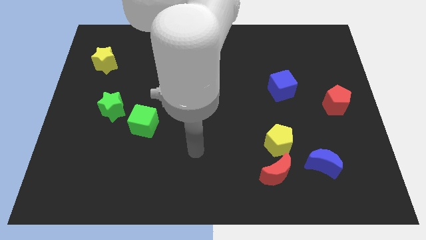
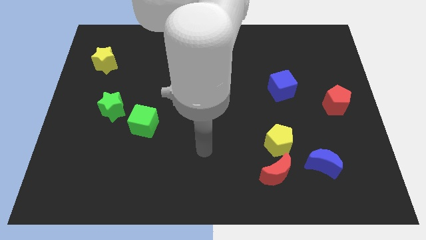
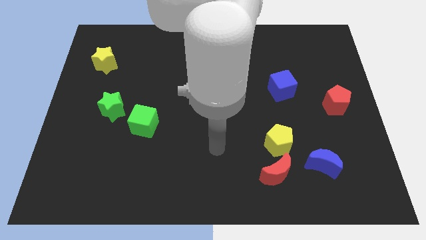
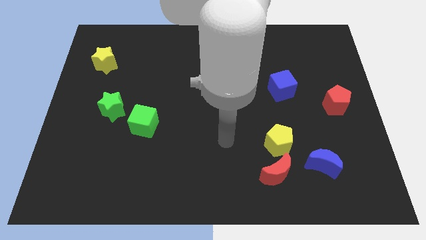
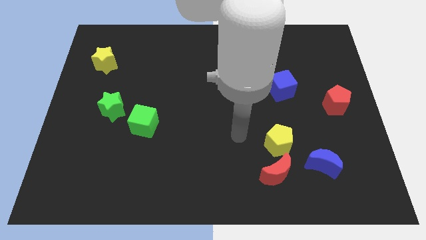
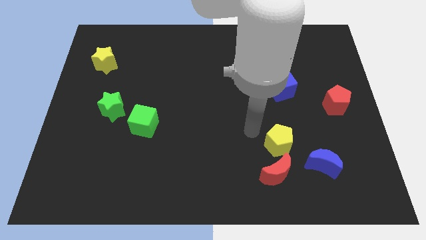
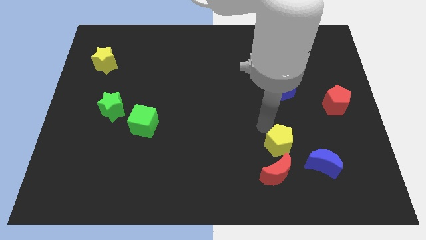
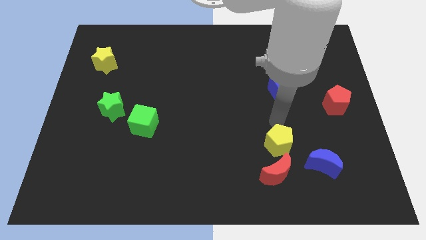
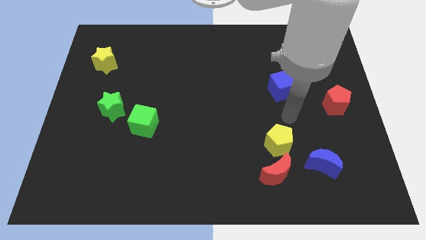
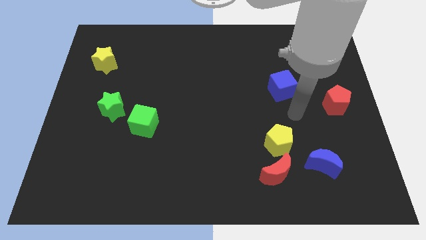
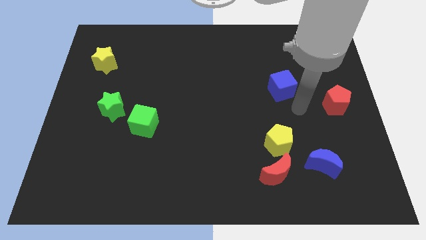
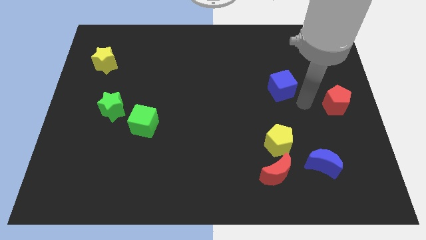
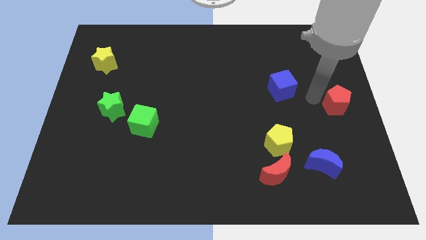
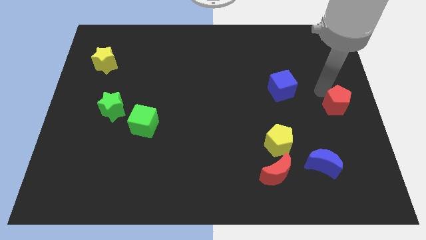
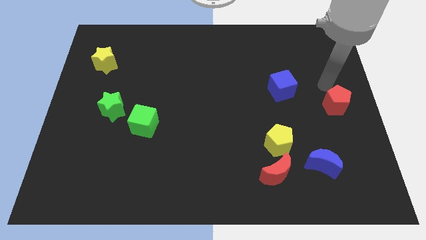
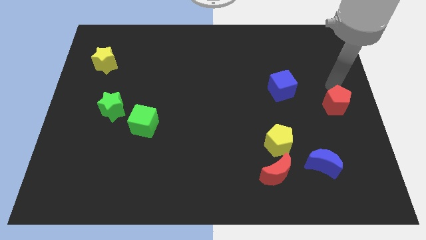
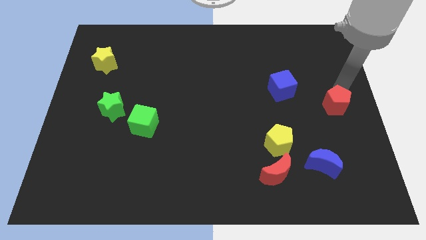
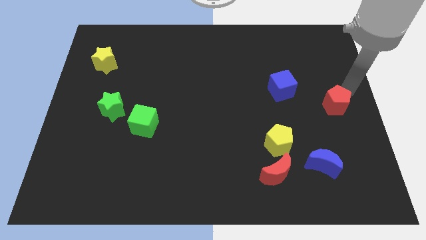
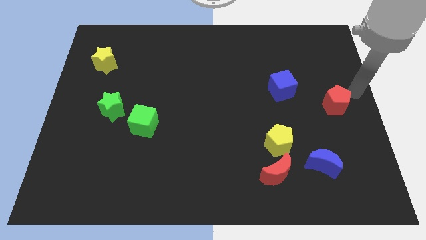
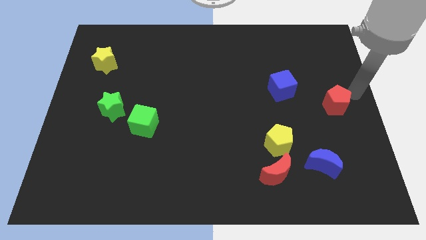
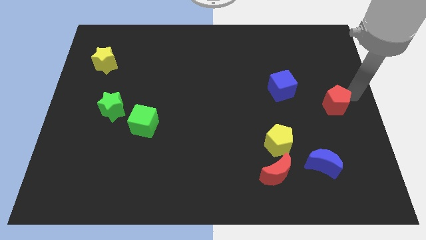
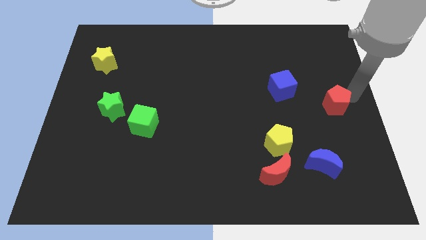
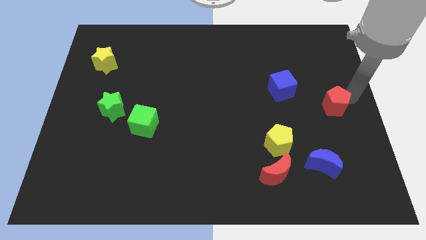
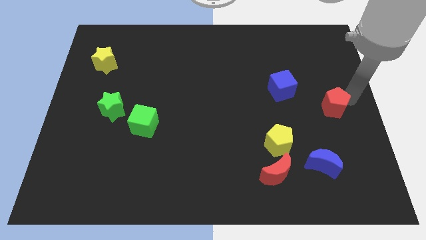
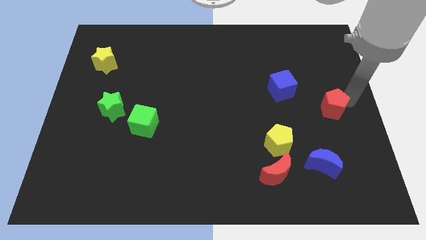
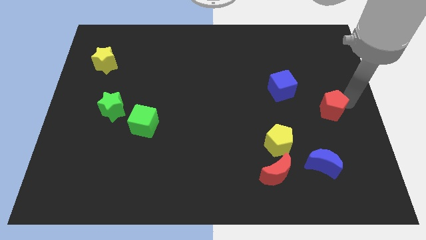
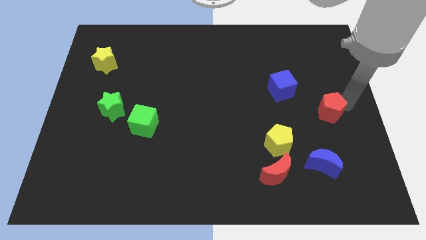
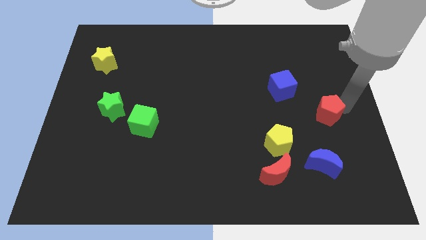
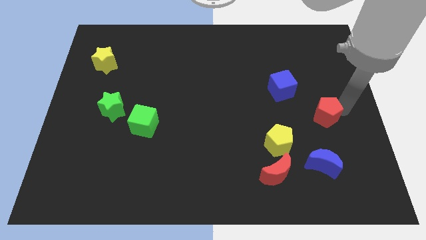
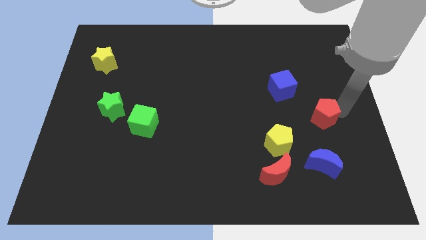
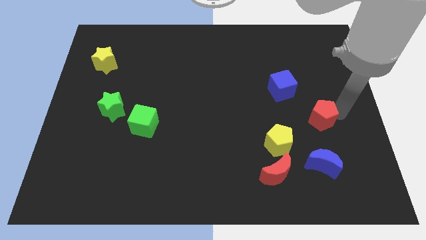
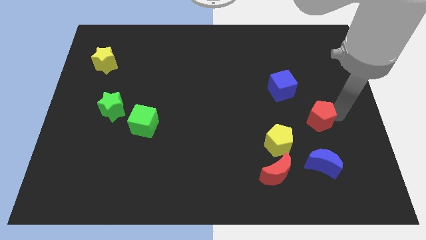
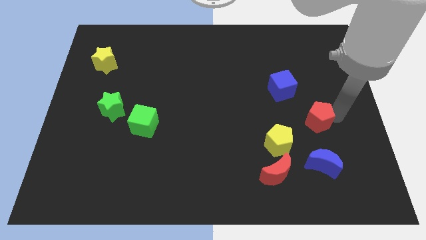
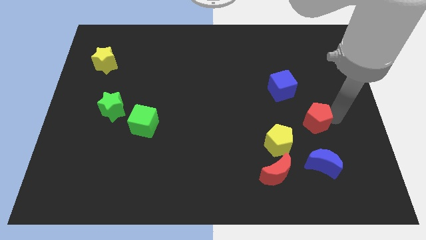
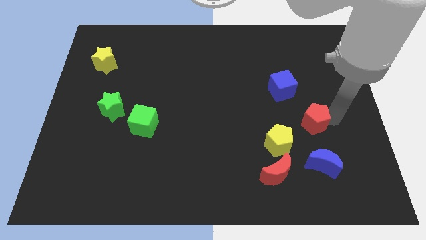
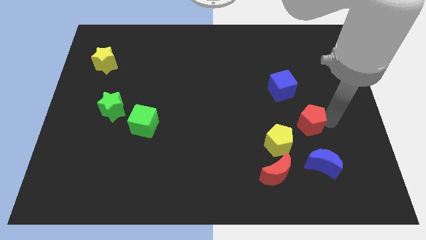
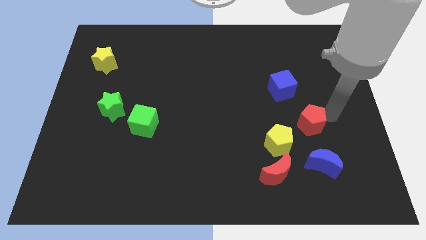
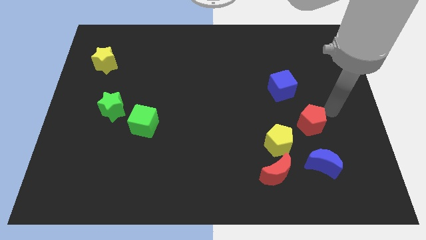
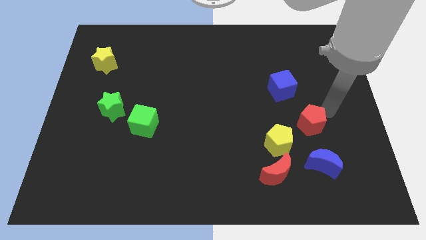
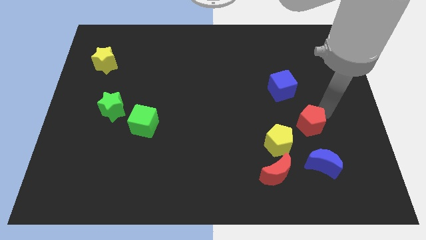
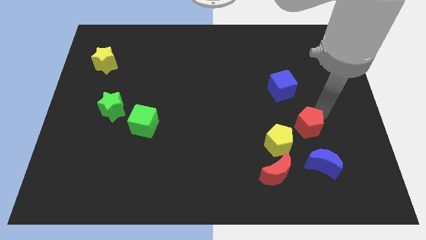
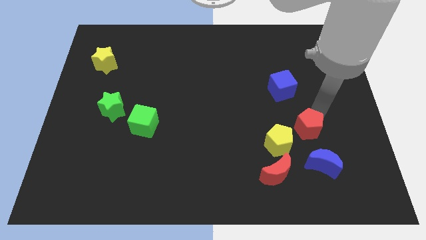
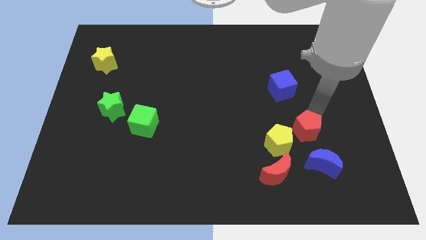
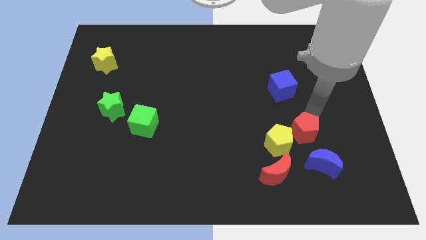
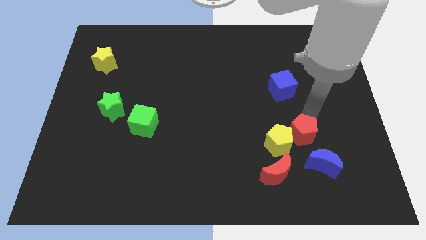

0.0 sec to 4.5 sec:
slide the red pentagon towards the yellow pentagon

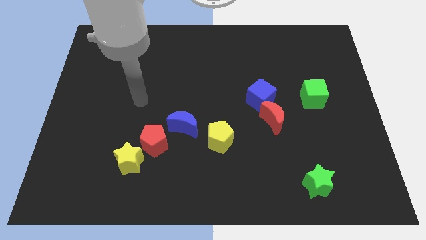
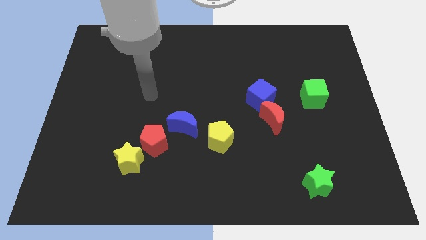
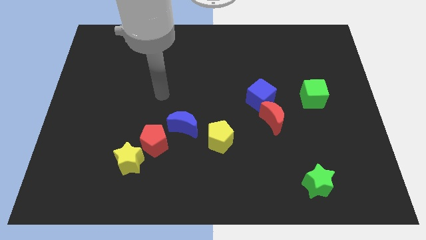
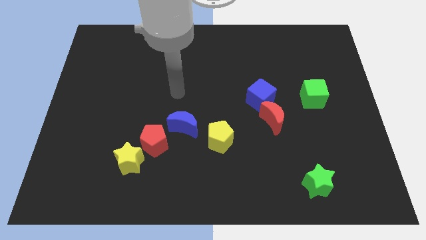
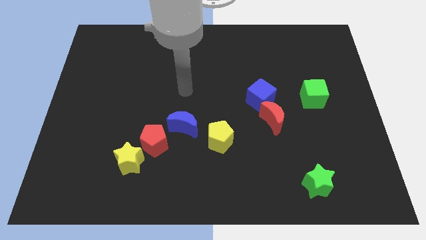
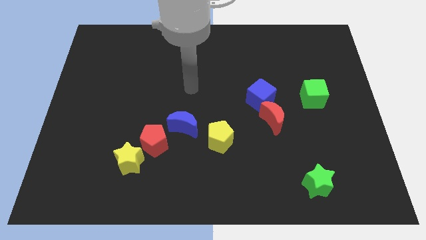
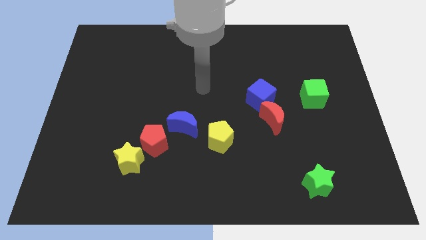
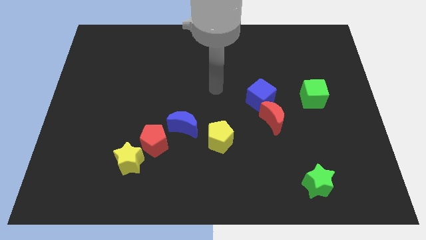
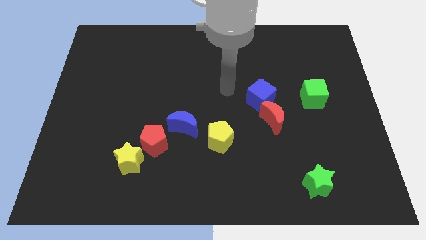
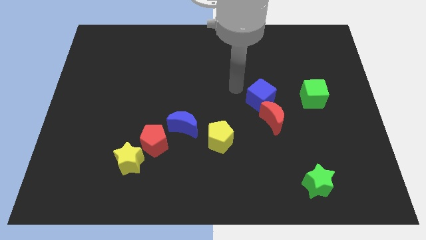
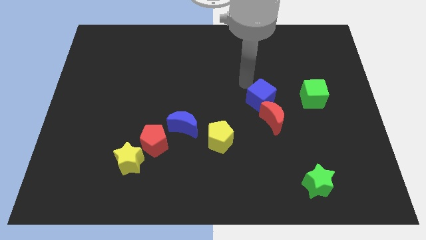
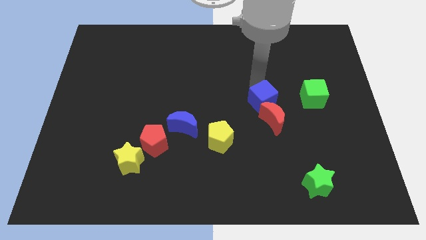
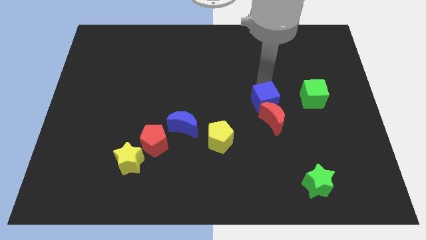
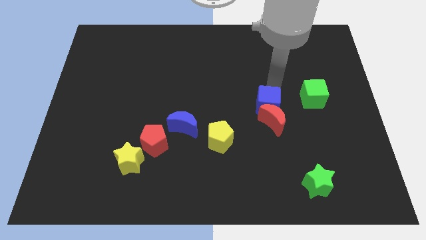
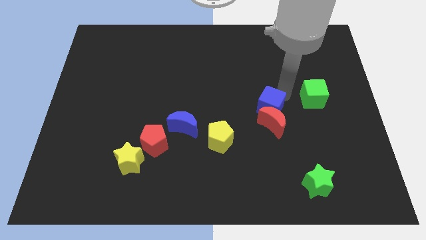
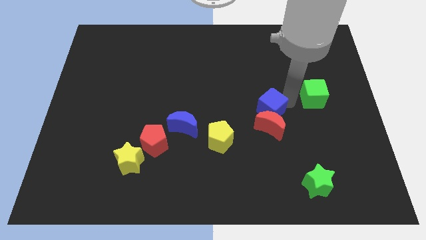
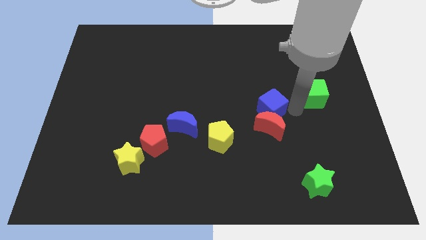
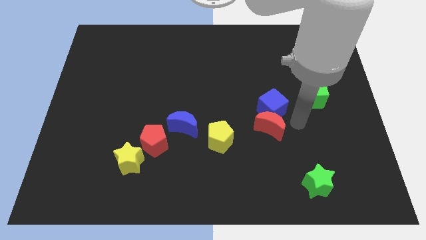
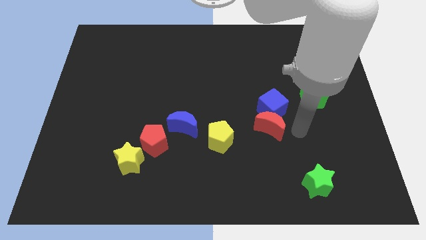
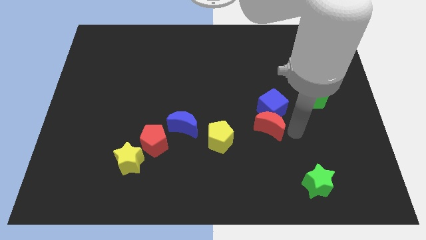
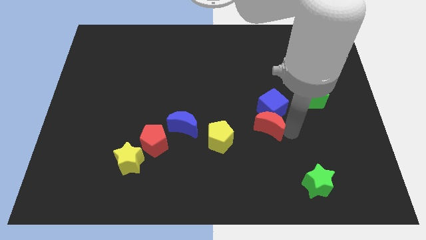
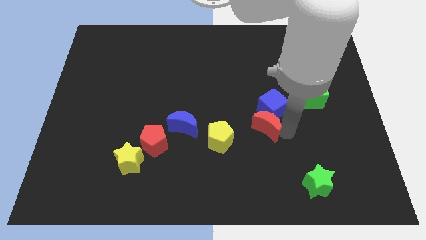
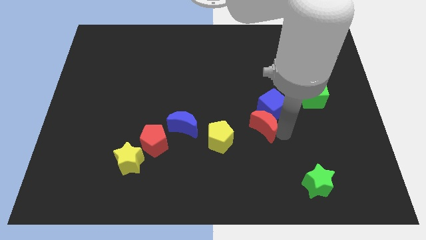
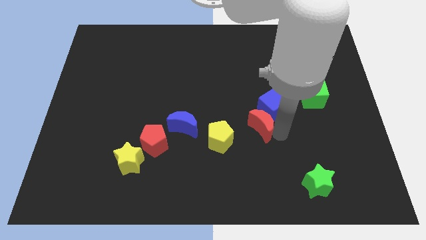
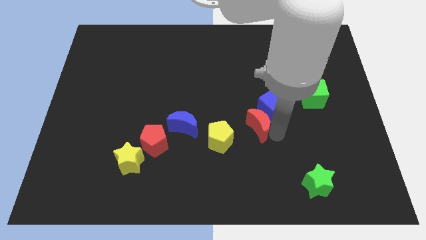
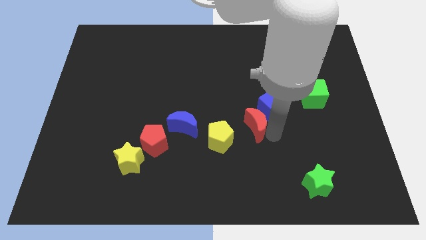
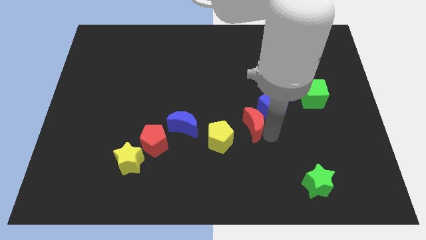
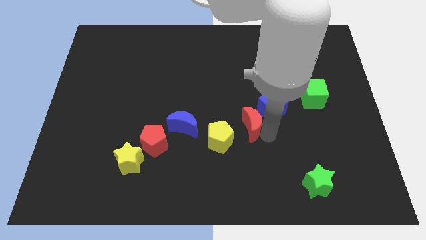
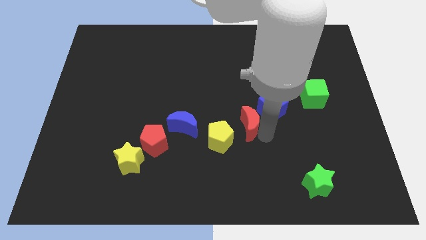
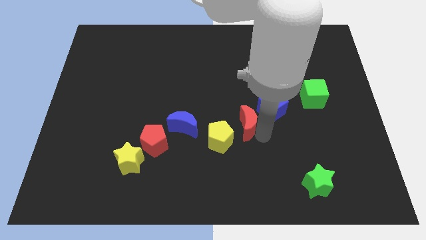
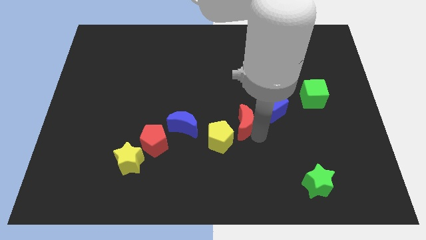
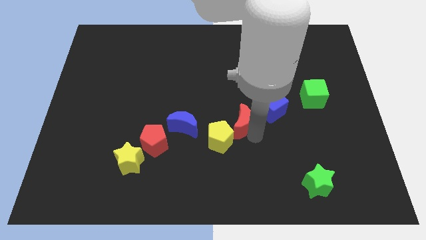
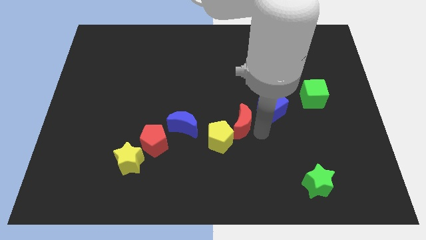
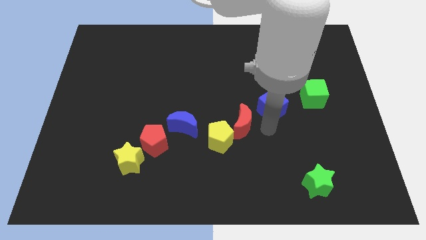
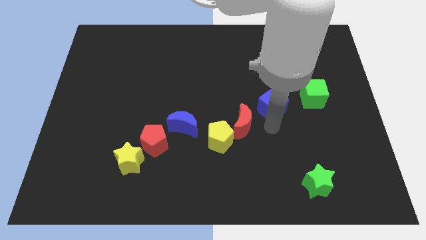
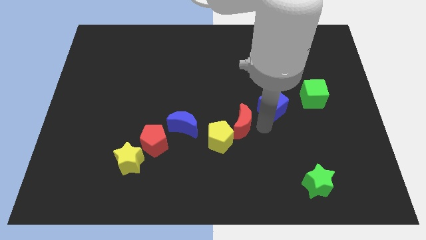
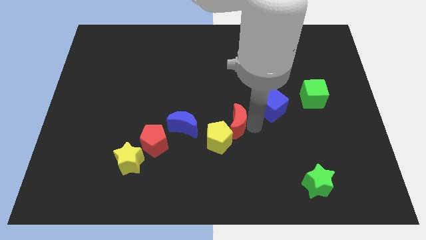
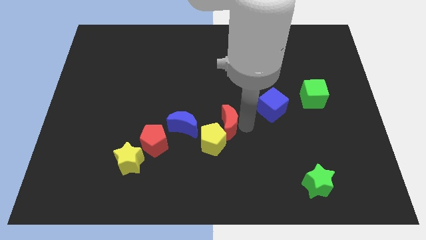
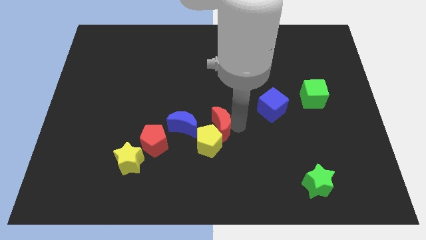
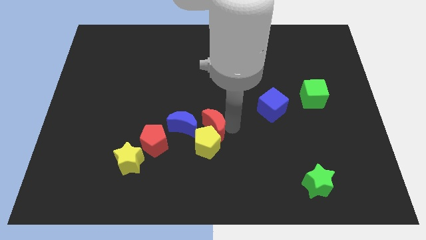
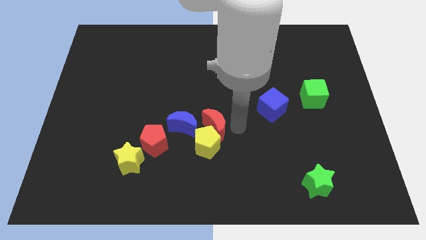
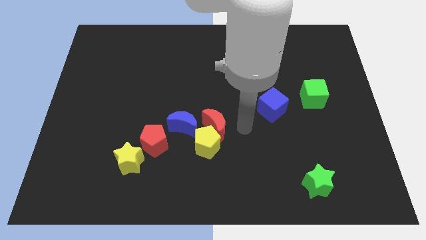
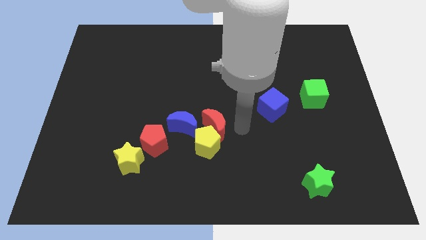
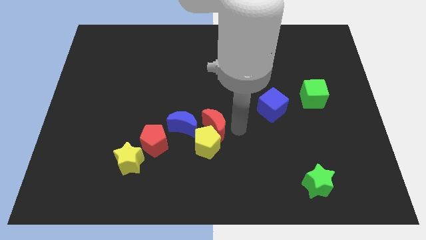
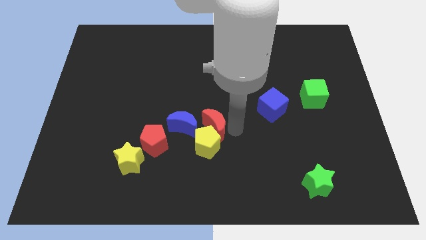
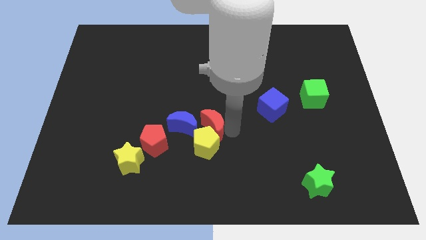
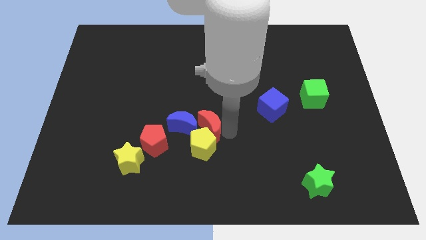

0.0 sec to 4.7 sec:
push the red moon close to the blue moon
